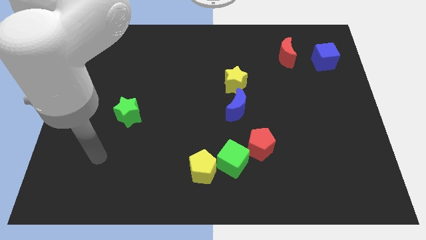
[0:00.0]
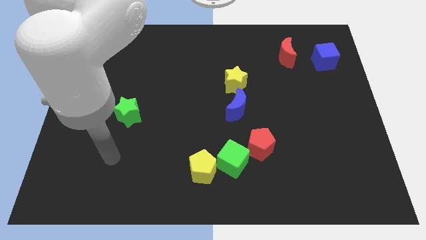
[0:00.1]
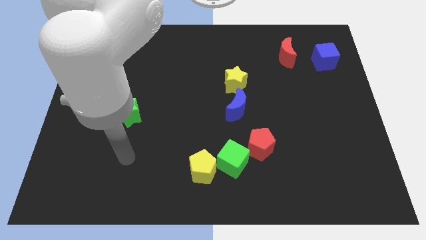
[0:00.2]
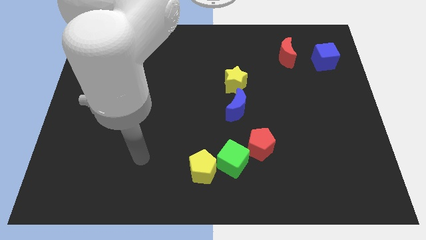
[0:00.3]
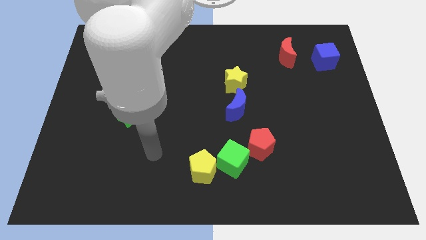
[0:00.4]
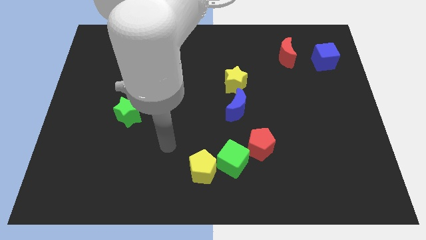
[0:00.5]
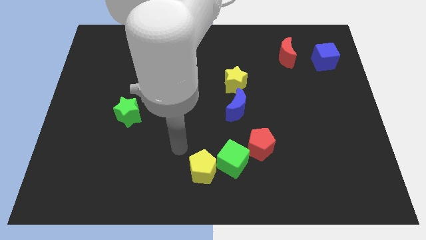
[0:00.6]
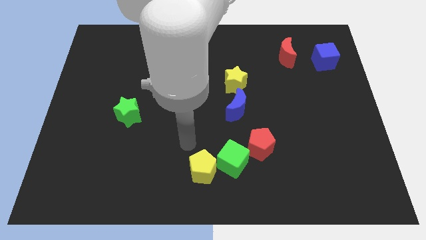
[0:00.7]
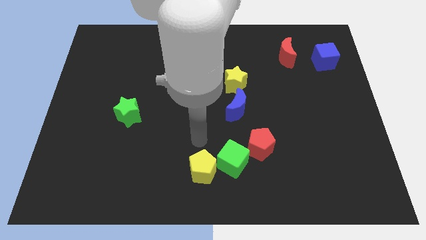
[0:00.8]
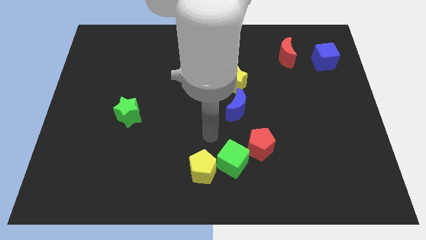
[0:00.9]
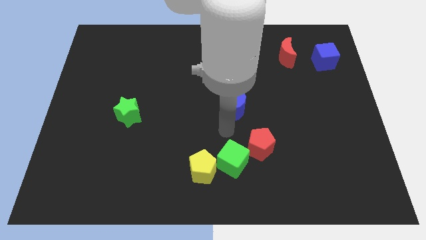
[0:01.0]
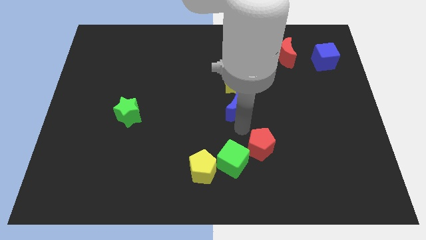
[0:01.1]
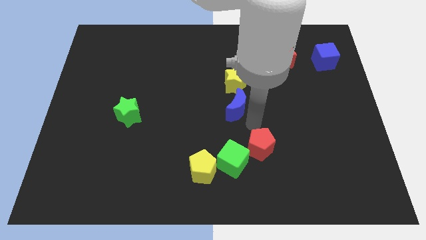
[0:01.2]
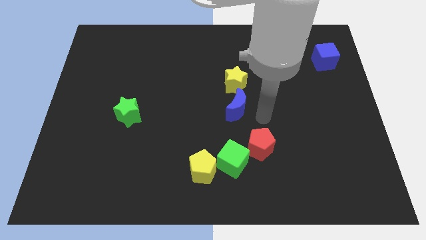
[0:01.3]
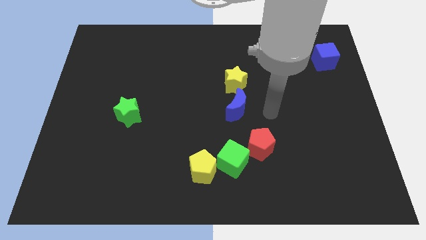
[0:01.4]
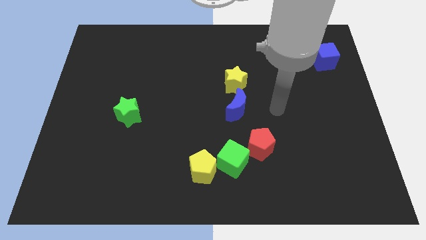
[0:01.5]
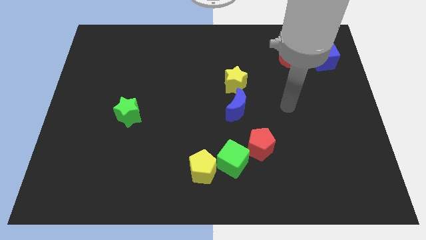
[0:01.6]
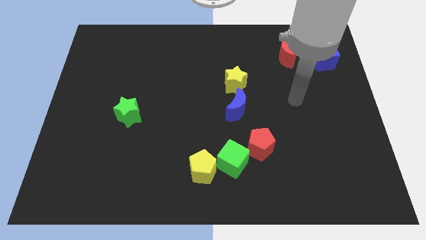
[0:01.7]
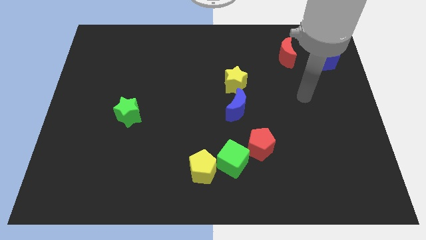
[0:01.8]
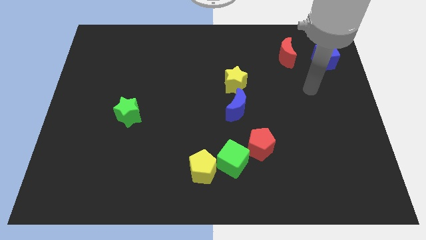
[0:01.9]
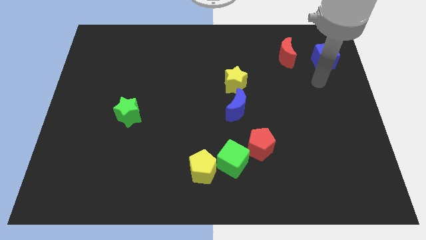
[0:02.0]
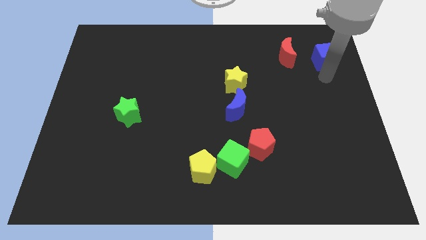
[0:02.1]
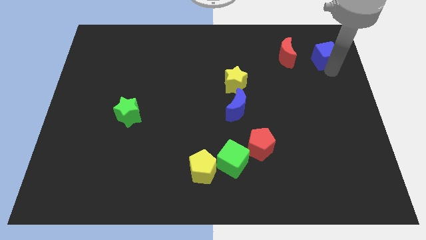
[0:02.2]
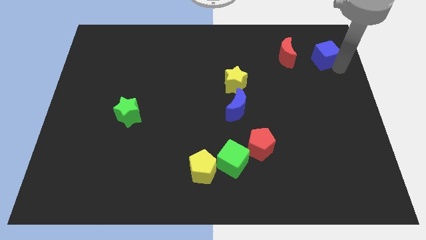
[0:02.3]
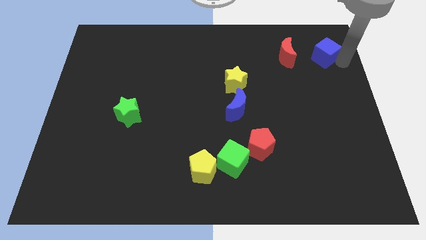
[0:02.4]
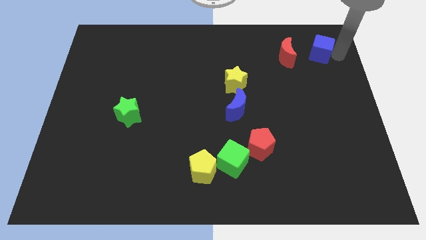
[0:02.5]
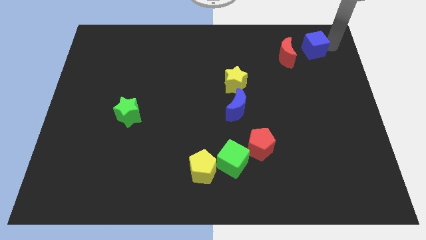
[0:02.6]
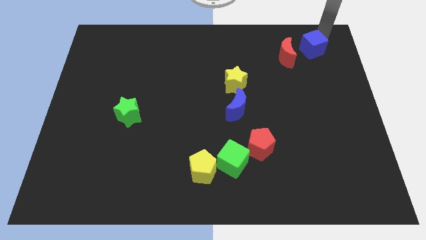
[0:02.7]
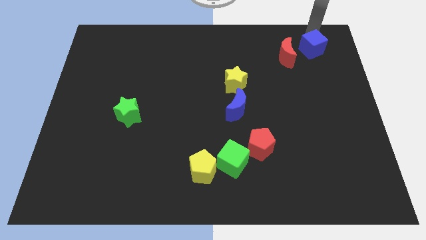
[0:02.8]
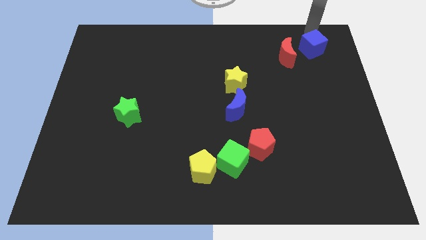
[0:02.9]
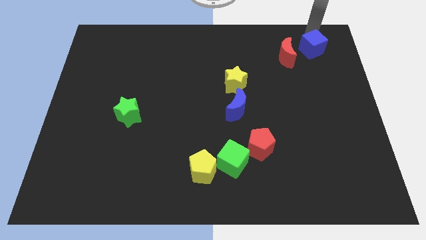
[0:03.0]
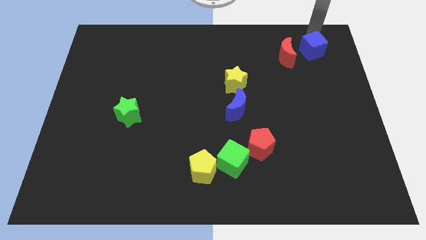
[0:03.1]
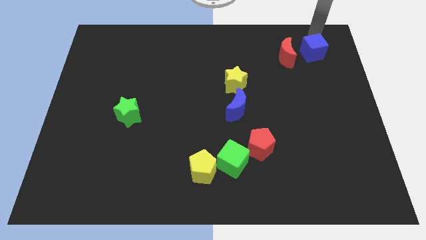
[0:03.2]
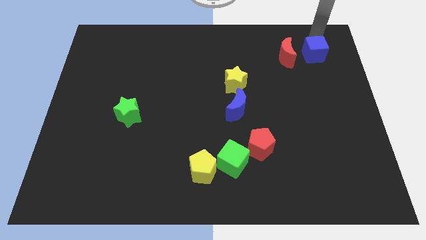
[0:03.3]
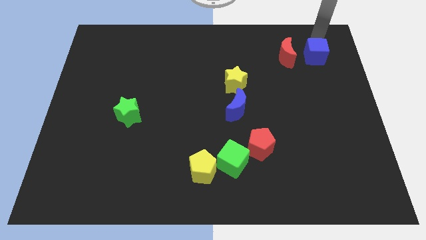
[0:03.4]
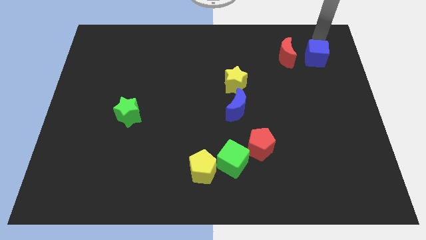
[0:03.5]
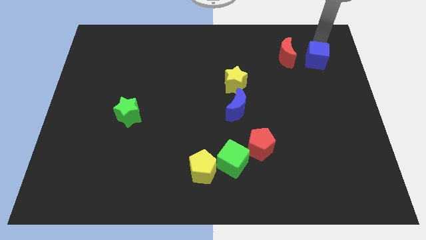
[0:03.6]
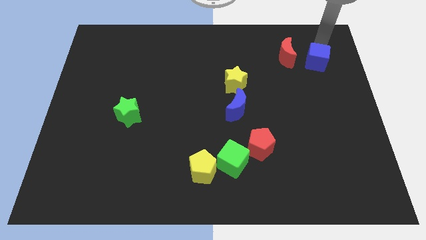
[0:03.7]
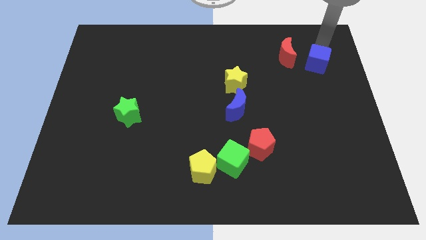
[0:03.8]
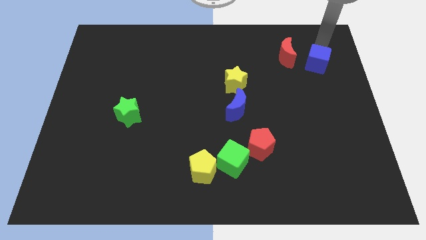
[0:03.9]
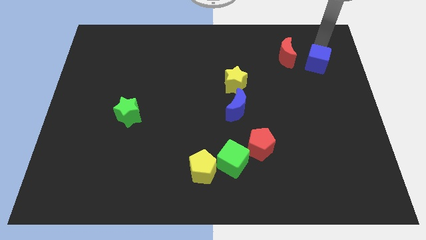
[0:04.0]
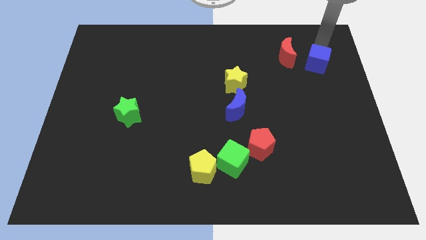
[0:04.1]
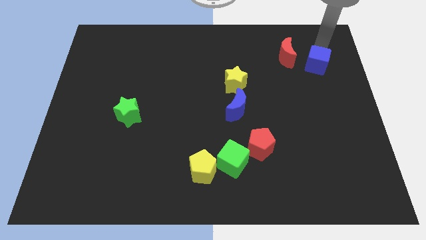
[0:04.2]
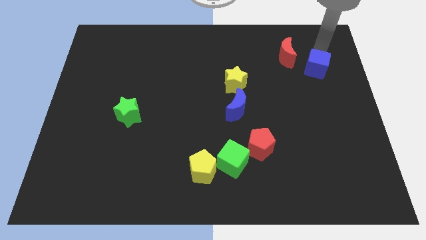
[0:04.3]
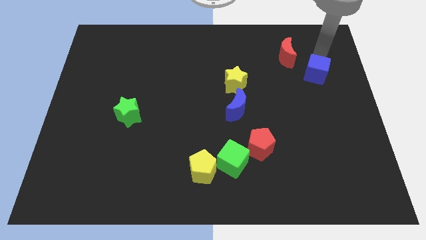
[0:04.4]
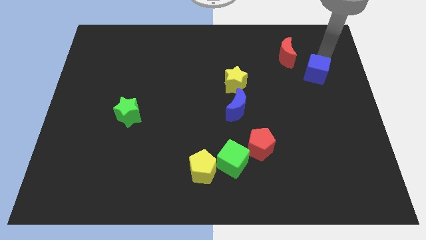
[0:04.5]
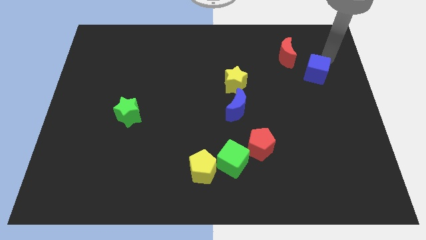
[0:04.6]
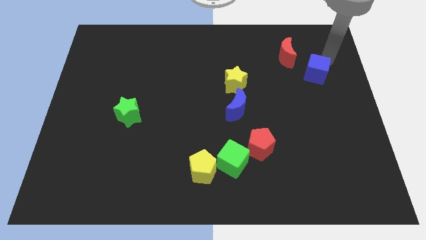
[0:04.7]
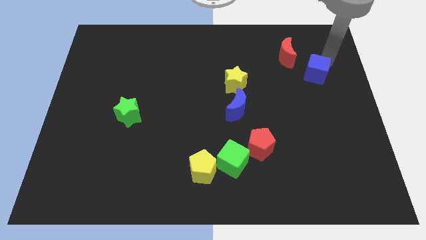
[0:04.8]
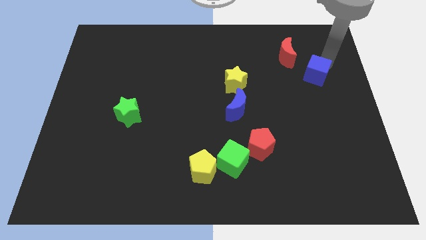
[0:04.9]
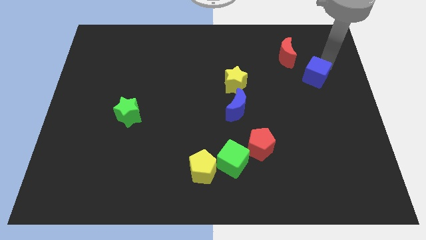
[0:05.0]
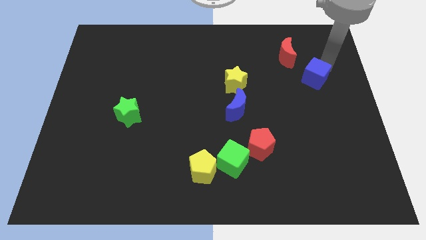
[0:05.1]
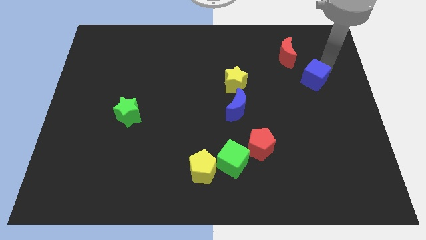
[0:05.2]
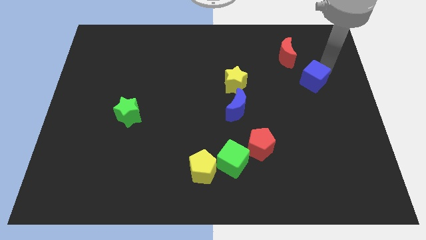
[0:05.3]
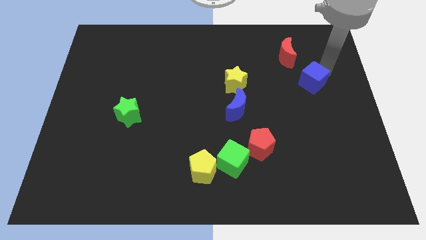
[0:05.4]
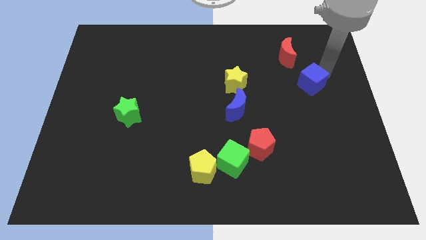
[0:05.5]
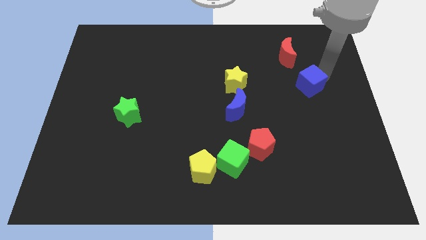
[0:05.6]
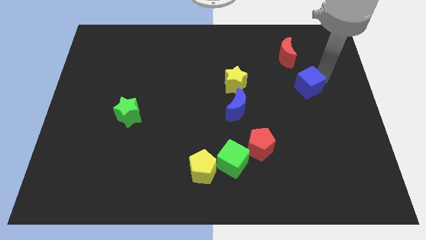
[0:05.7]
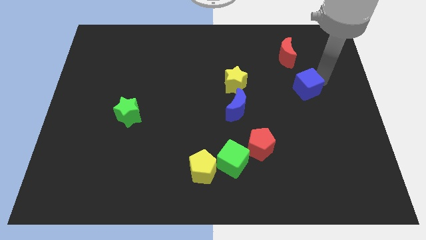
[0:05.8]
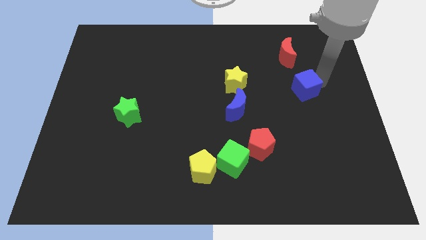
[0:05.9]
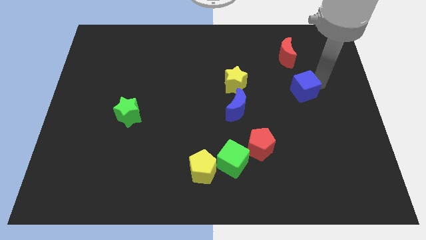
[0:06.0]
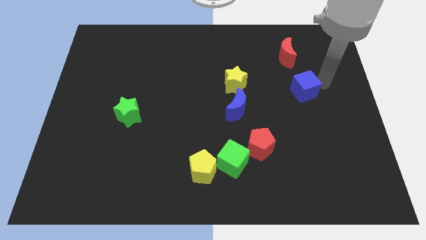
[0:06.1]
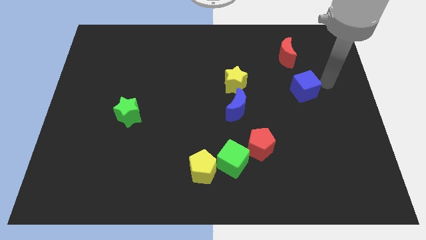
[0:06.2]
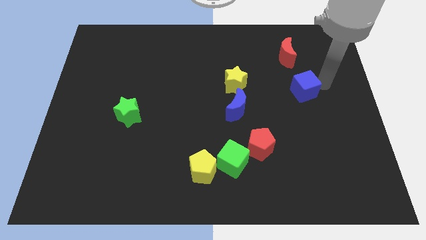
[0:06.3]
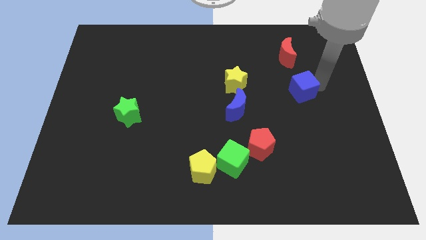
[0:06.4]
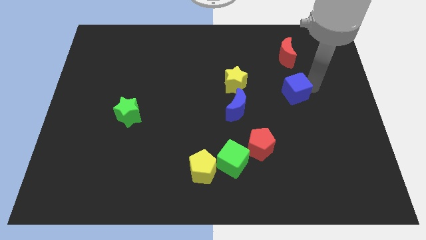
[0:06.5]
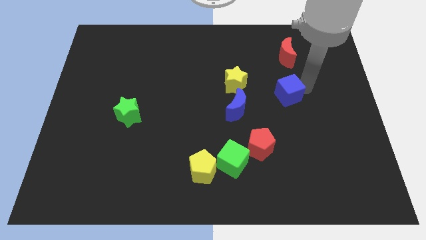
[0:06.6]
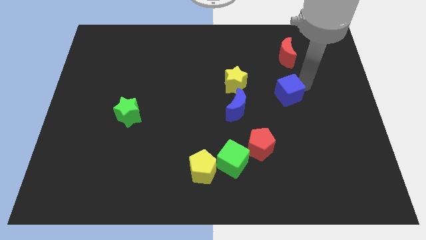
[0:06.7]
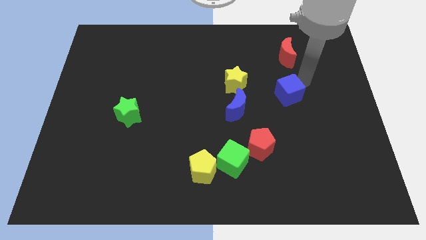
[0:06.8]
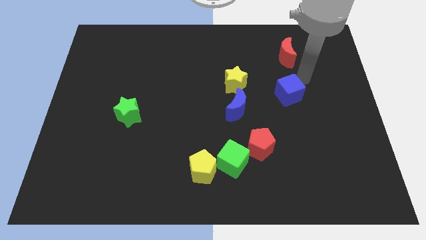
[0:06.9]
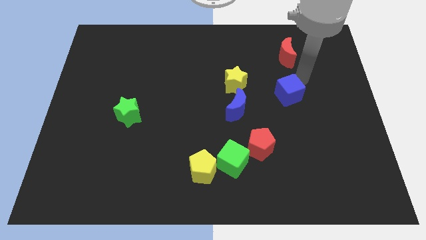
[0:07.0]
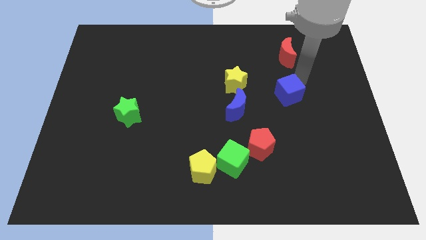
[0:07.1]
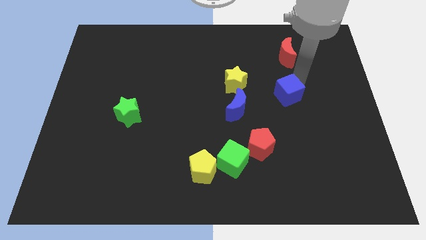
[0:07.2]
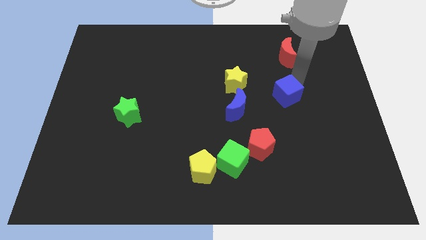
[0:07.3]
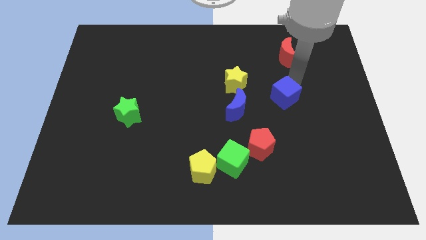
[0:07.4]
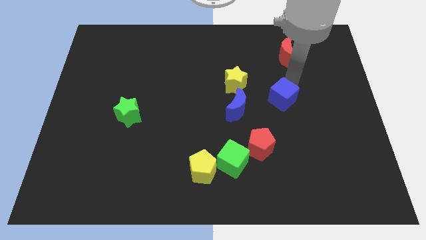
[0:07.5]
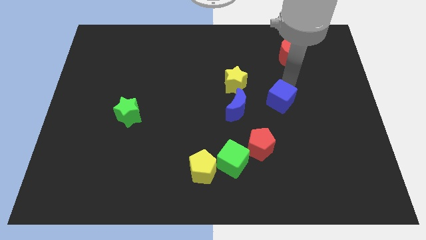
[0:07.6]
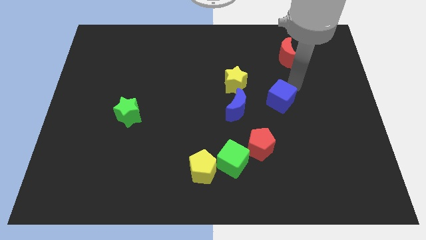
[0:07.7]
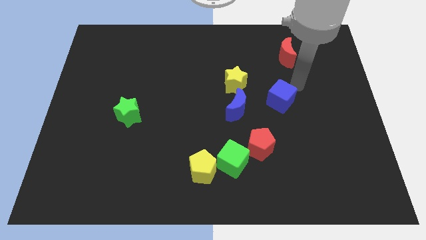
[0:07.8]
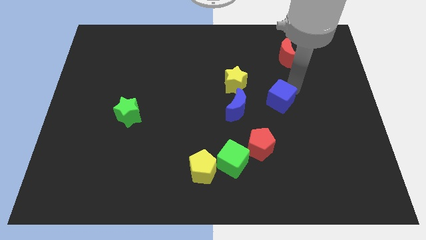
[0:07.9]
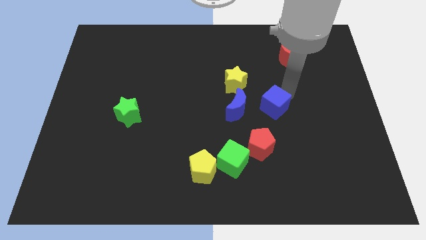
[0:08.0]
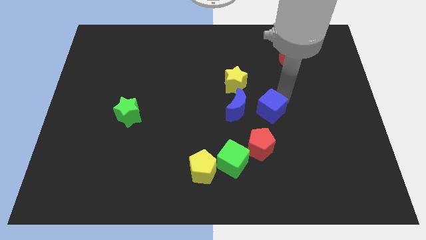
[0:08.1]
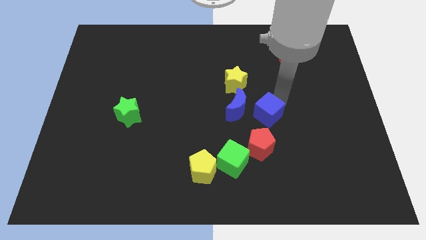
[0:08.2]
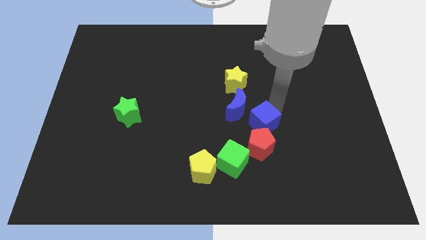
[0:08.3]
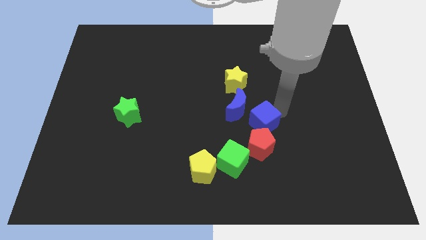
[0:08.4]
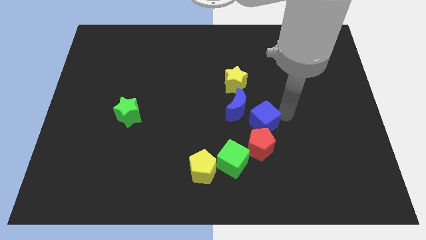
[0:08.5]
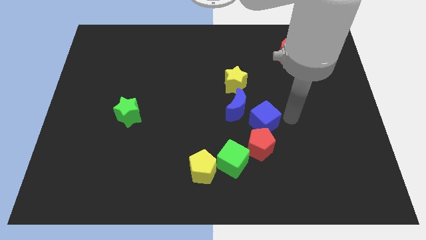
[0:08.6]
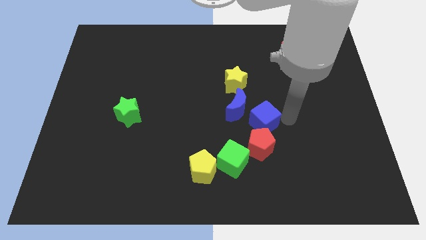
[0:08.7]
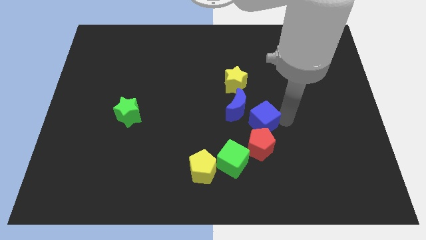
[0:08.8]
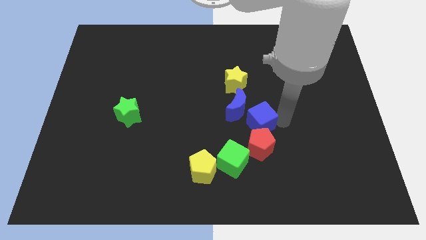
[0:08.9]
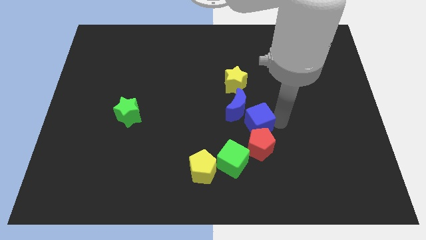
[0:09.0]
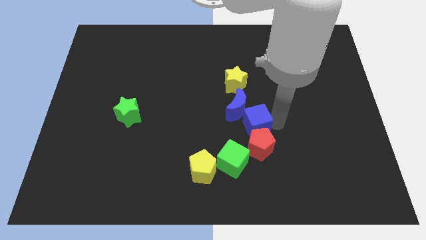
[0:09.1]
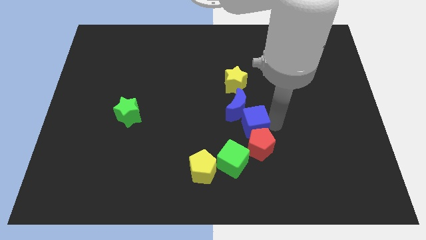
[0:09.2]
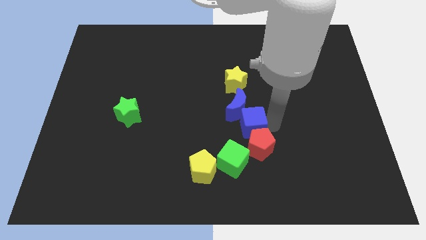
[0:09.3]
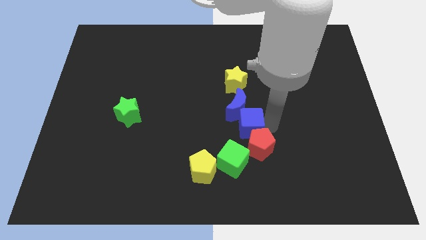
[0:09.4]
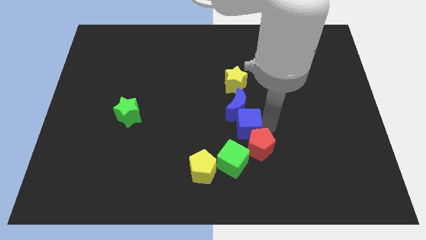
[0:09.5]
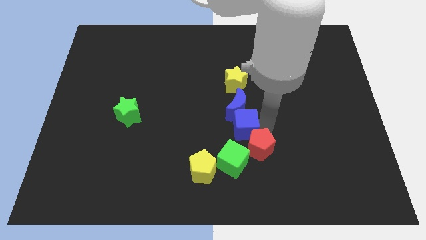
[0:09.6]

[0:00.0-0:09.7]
push the blue cube to the bottom left of the blue moon
